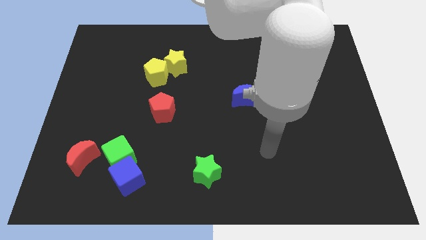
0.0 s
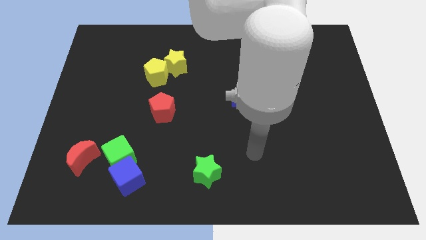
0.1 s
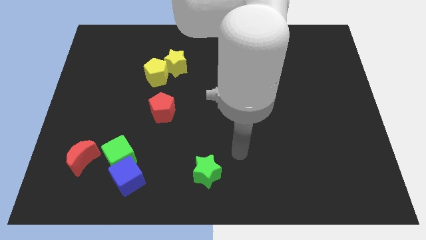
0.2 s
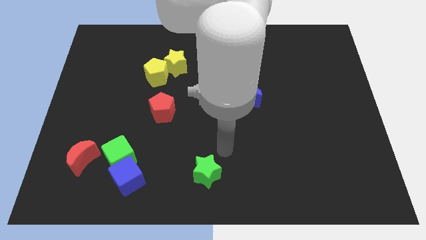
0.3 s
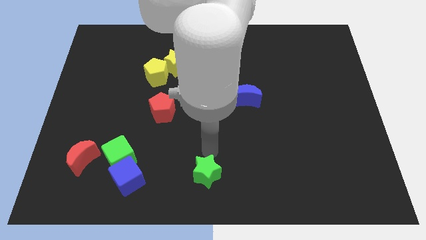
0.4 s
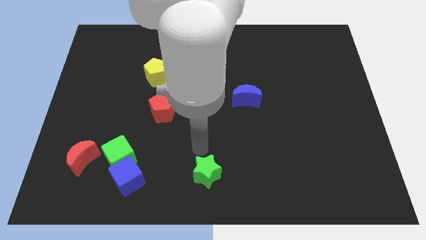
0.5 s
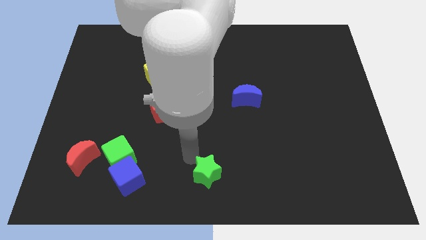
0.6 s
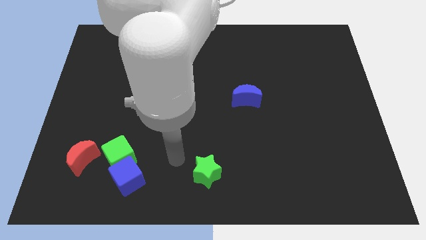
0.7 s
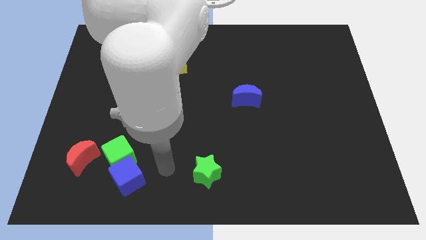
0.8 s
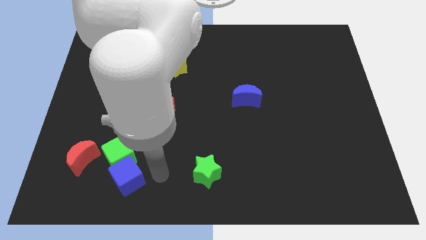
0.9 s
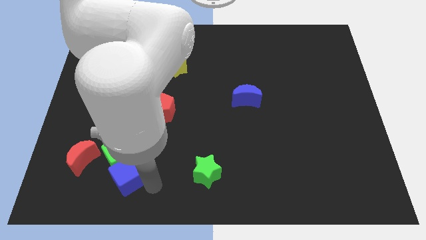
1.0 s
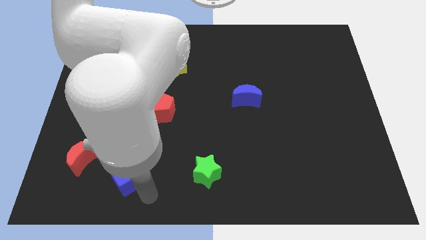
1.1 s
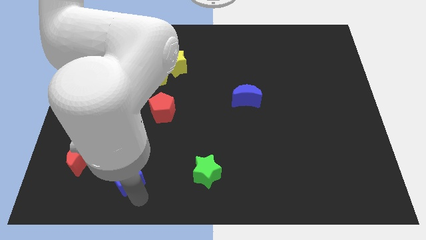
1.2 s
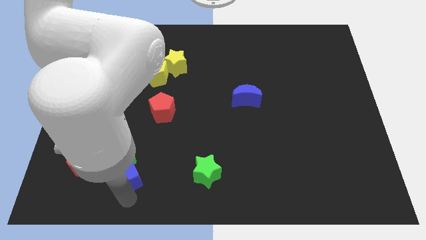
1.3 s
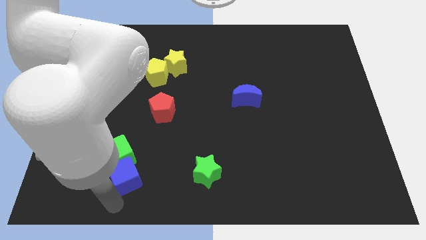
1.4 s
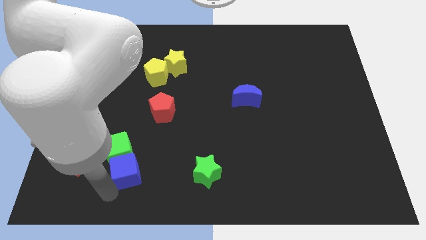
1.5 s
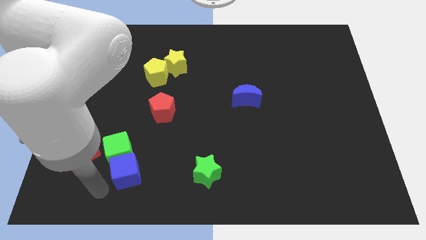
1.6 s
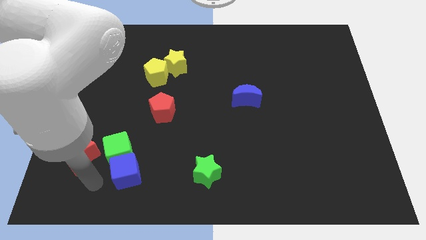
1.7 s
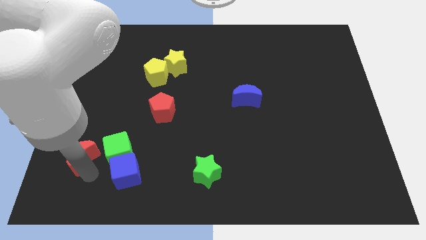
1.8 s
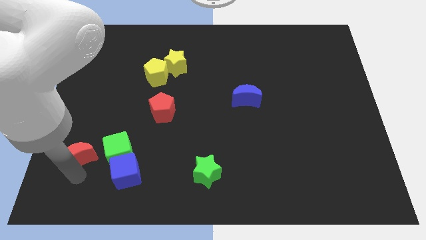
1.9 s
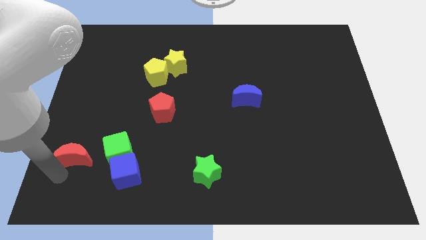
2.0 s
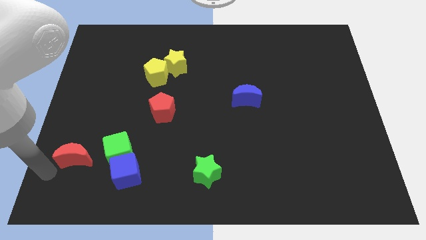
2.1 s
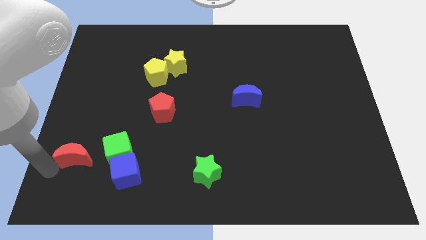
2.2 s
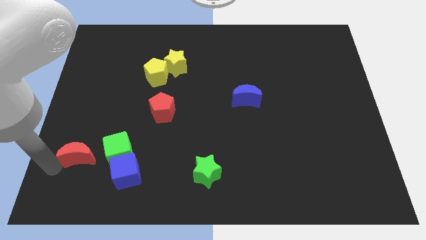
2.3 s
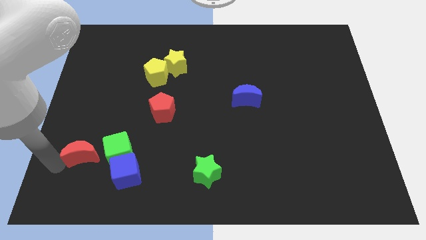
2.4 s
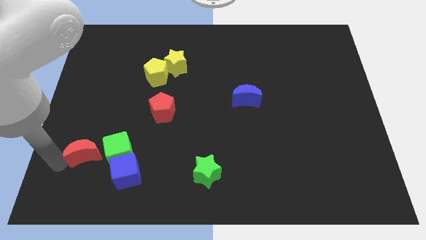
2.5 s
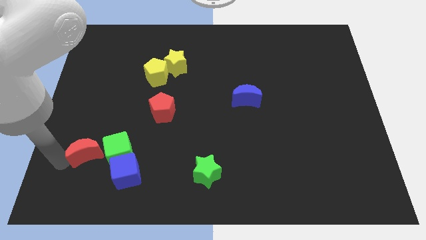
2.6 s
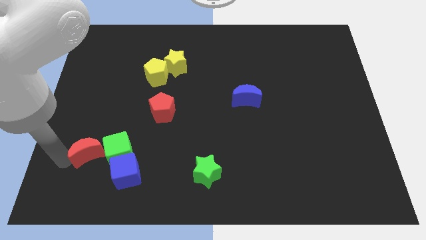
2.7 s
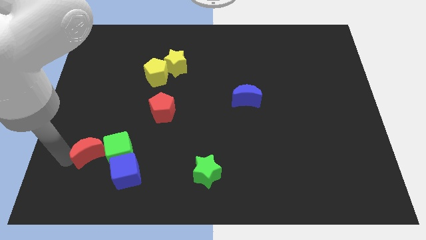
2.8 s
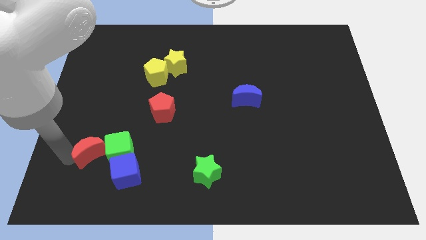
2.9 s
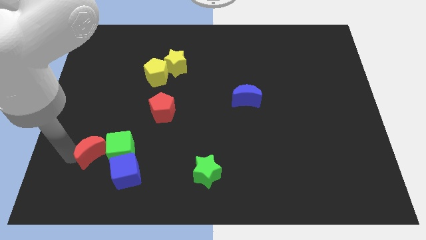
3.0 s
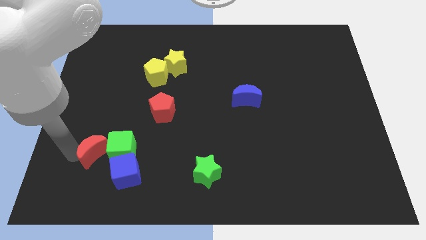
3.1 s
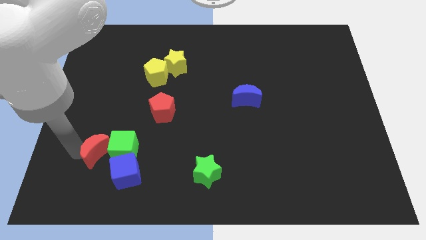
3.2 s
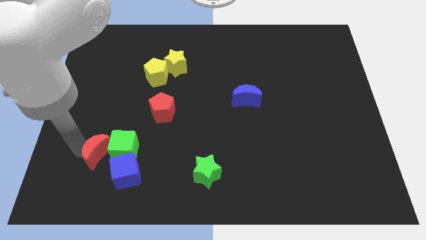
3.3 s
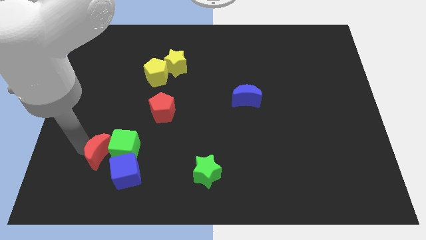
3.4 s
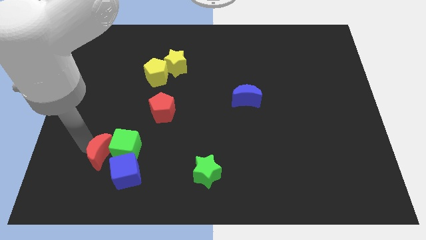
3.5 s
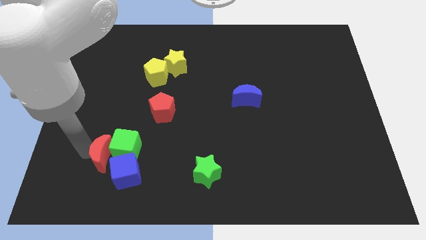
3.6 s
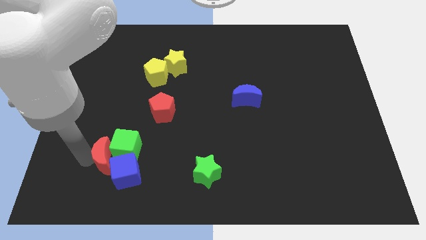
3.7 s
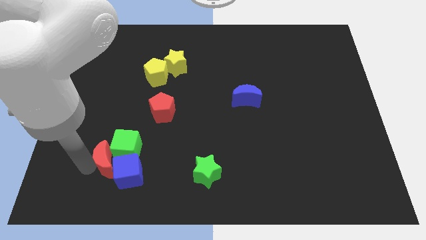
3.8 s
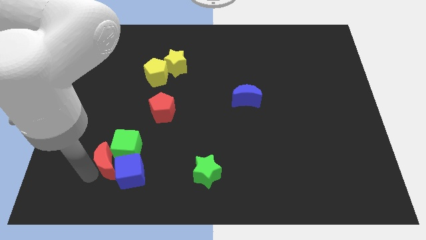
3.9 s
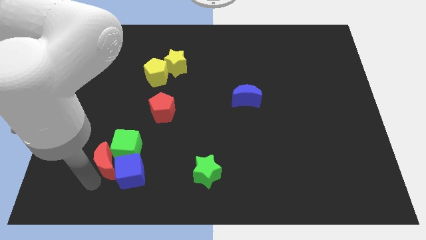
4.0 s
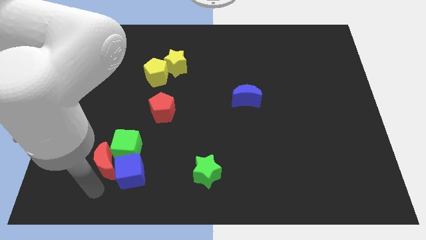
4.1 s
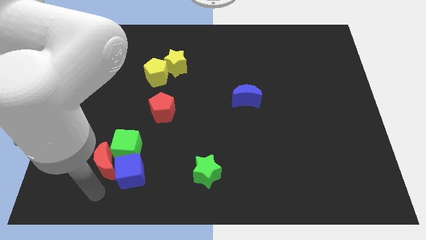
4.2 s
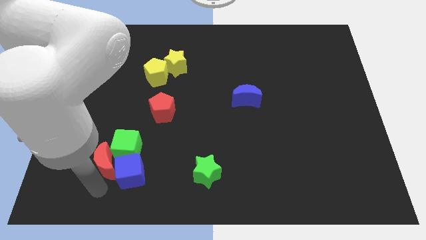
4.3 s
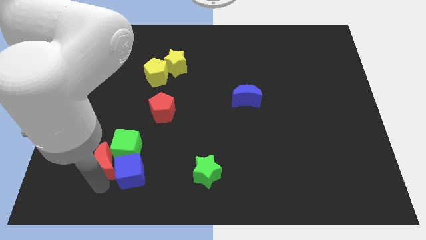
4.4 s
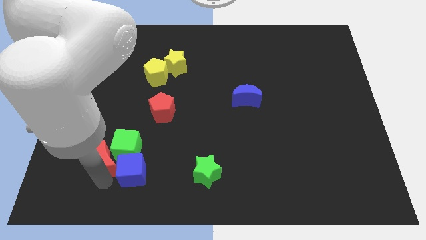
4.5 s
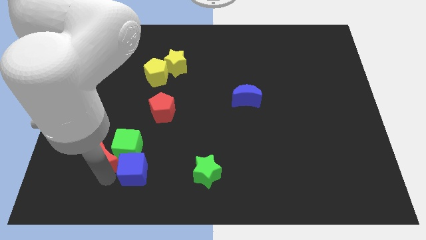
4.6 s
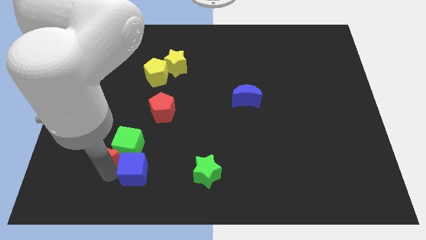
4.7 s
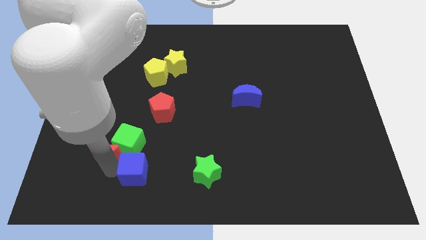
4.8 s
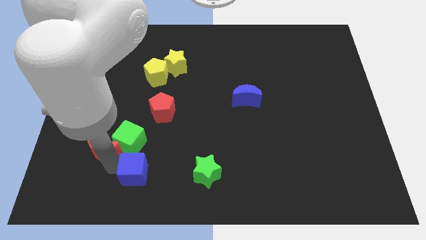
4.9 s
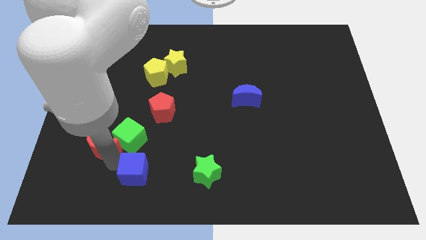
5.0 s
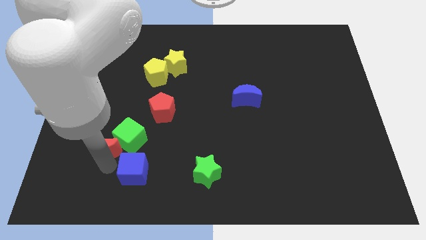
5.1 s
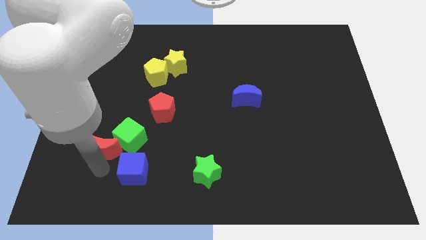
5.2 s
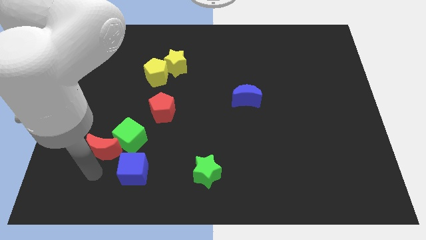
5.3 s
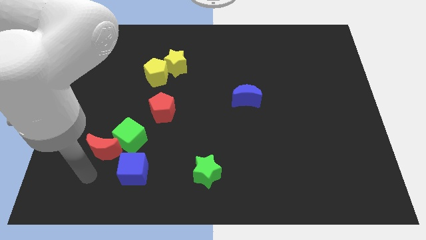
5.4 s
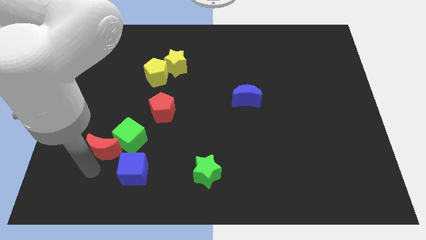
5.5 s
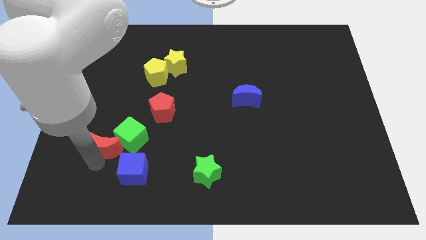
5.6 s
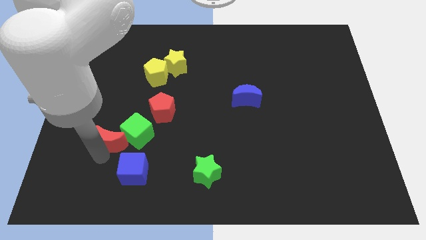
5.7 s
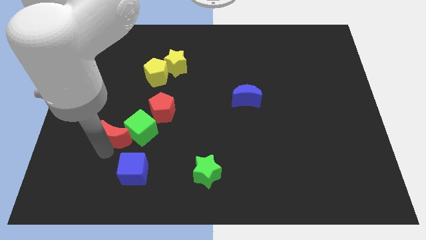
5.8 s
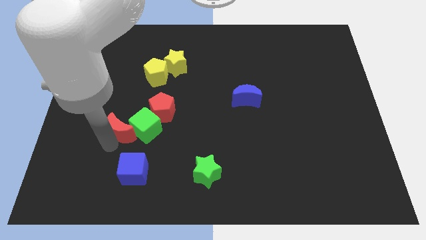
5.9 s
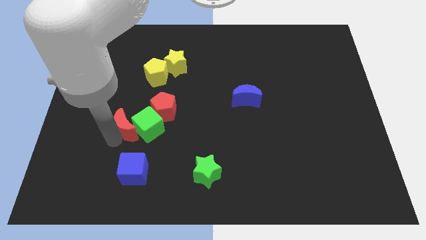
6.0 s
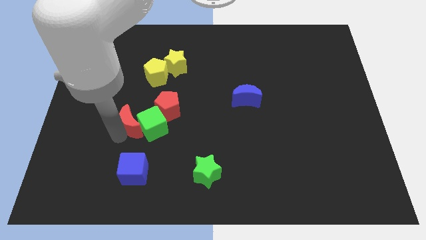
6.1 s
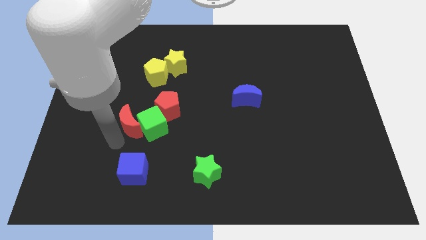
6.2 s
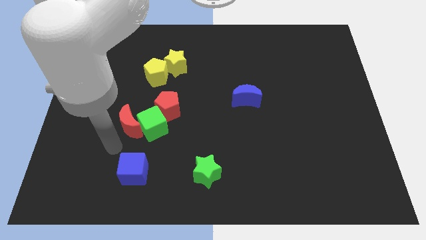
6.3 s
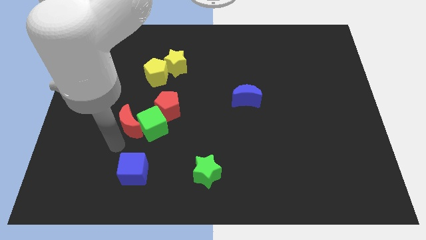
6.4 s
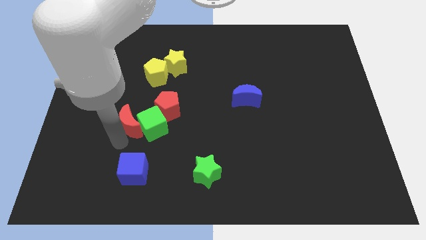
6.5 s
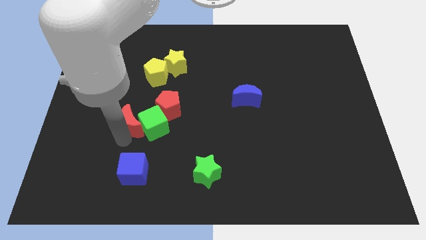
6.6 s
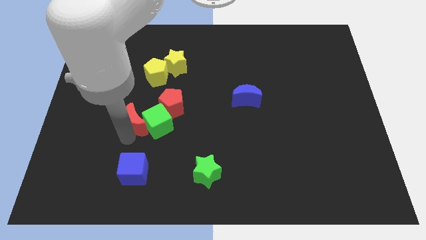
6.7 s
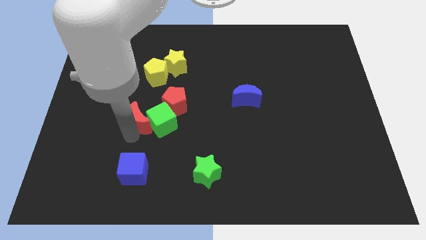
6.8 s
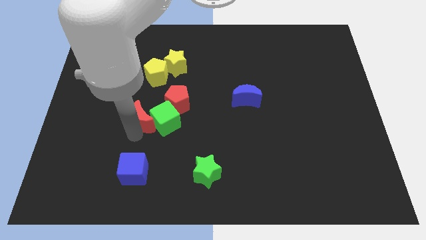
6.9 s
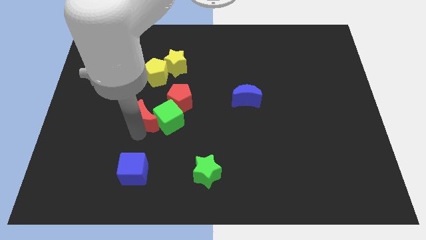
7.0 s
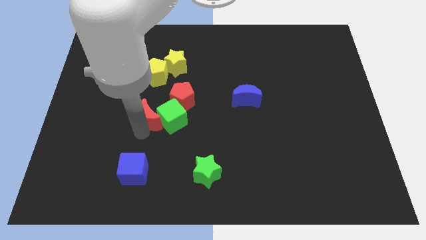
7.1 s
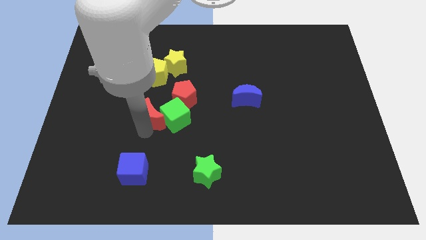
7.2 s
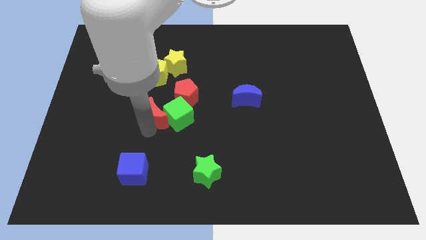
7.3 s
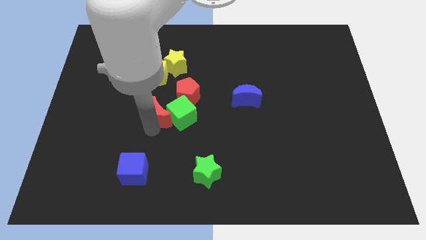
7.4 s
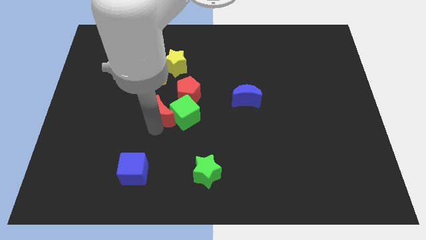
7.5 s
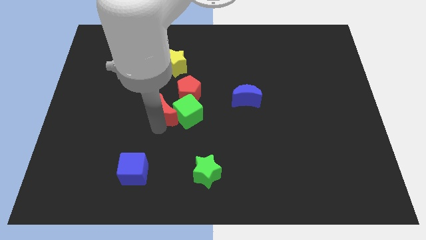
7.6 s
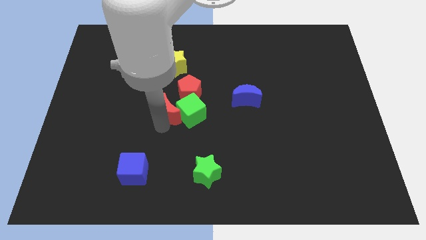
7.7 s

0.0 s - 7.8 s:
slide the red moon up and to the right

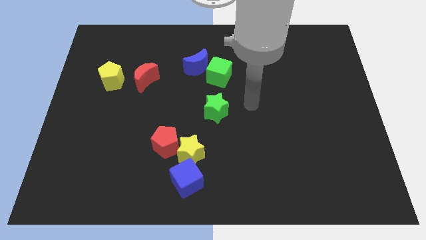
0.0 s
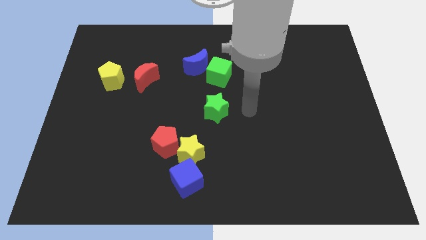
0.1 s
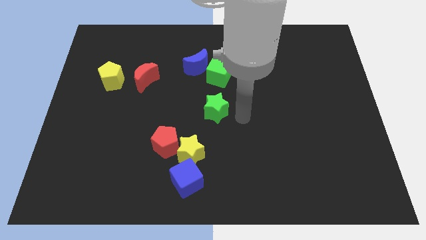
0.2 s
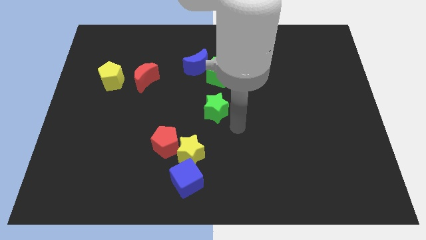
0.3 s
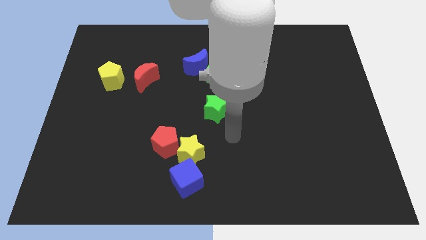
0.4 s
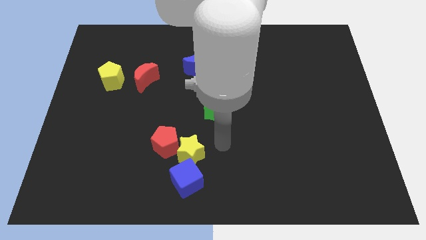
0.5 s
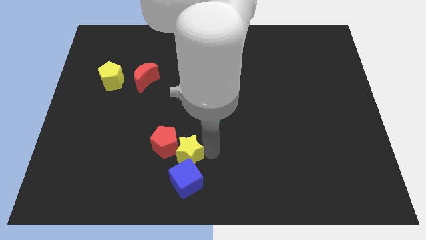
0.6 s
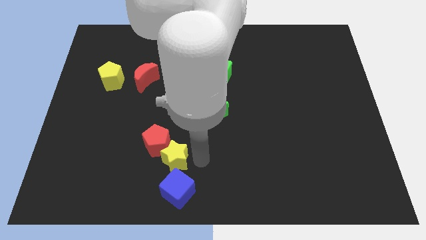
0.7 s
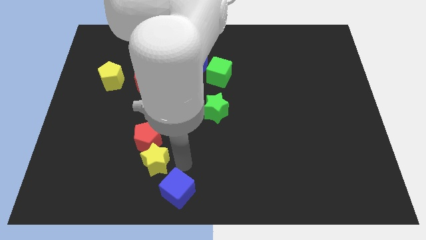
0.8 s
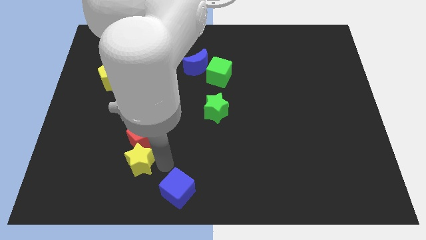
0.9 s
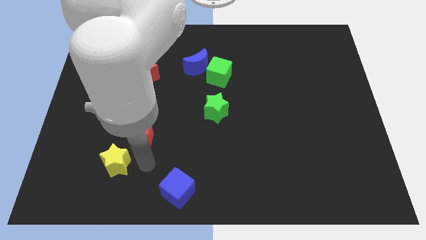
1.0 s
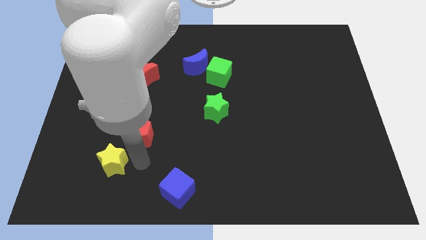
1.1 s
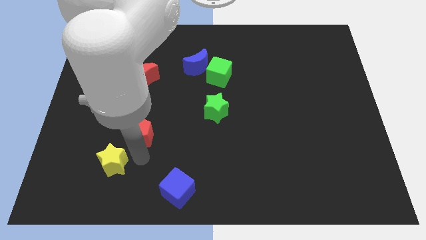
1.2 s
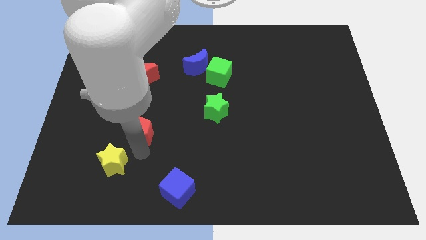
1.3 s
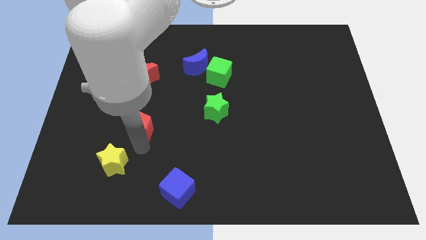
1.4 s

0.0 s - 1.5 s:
slide the red pentagon a bit up and to the left
